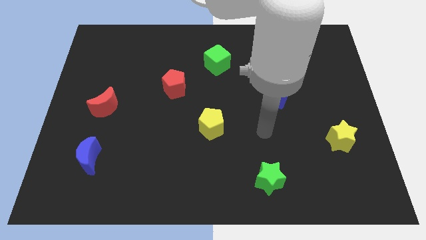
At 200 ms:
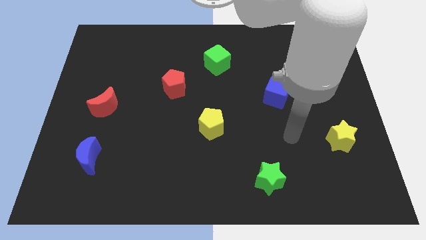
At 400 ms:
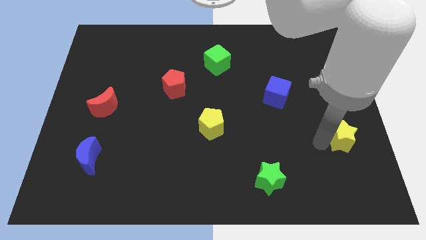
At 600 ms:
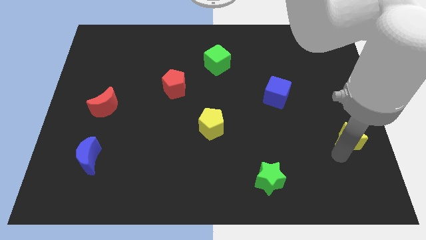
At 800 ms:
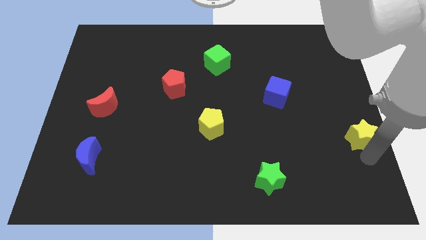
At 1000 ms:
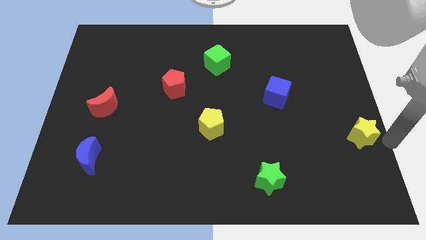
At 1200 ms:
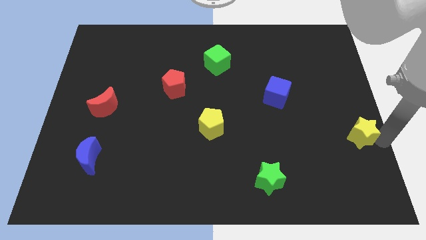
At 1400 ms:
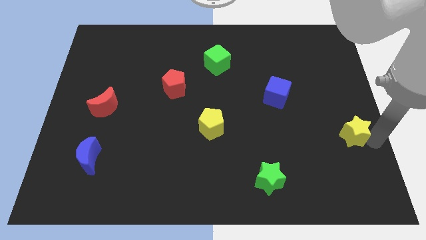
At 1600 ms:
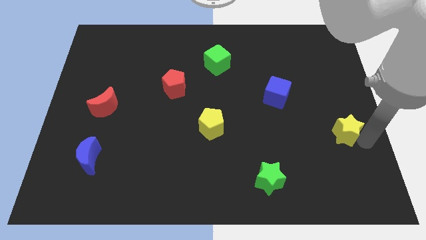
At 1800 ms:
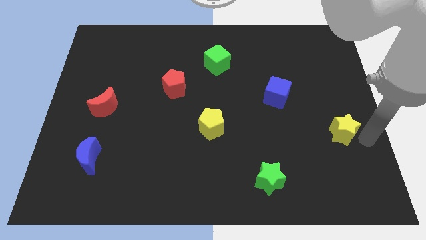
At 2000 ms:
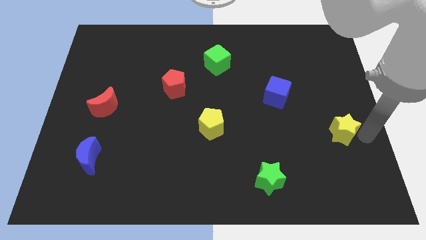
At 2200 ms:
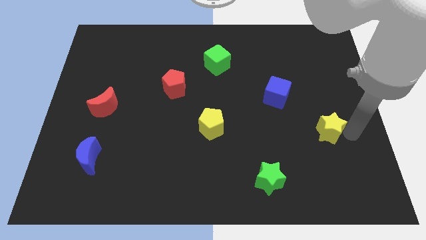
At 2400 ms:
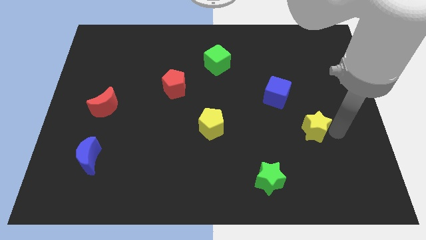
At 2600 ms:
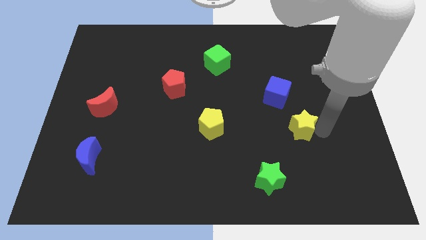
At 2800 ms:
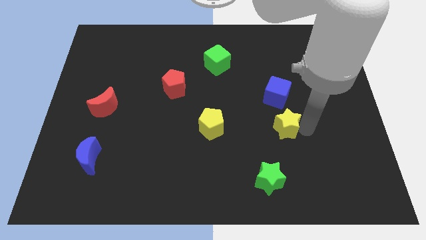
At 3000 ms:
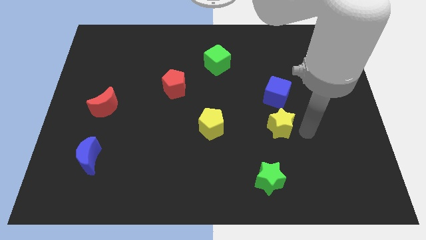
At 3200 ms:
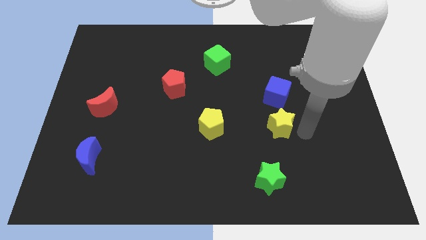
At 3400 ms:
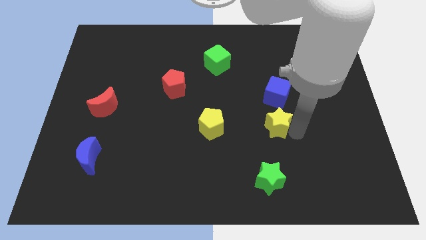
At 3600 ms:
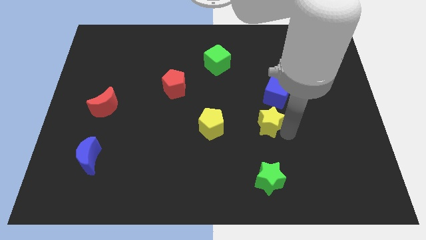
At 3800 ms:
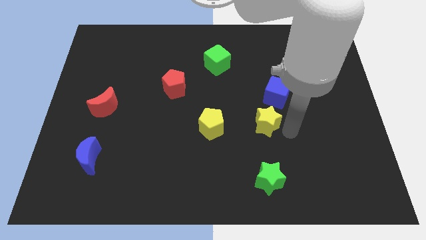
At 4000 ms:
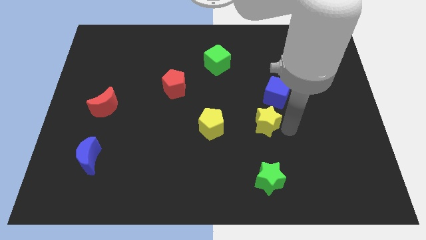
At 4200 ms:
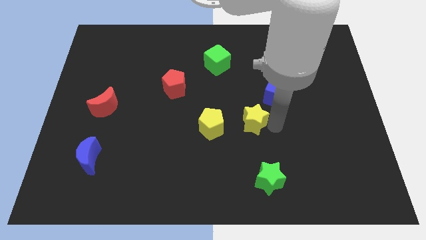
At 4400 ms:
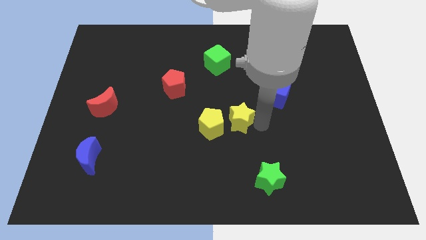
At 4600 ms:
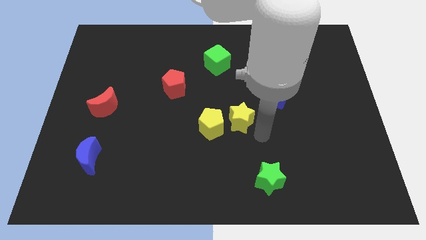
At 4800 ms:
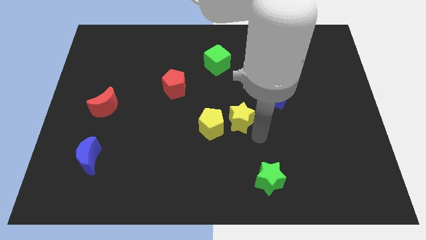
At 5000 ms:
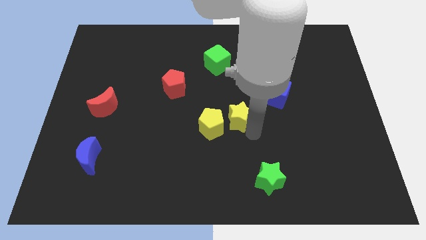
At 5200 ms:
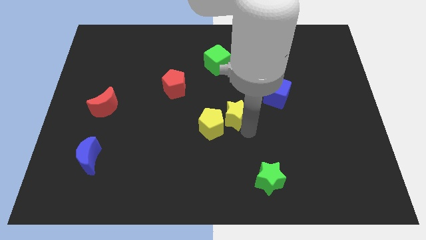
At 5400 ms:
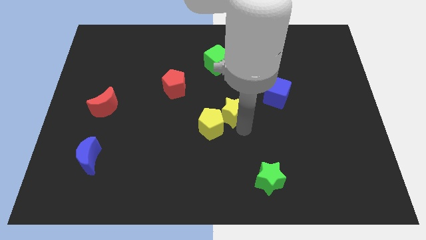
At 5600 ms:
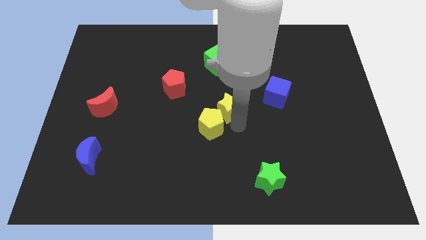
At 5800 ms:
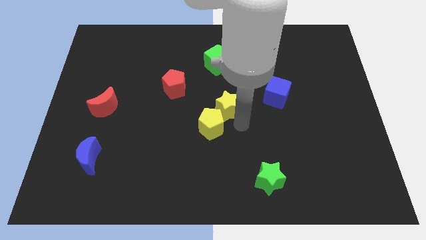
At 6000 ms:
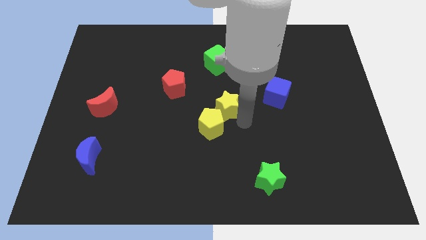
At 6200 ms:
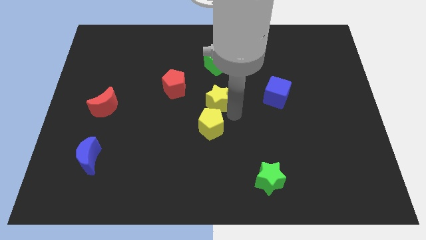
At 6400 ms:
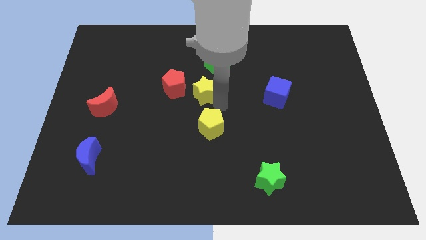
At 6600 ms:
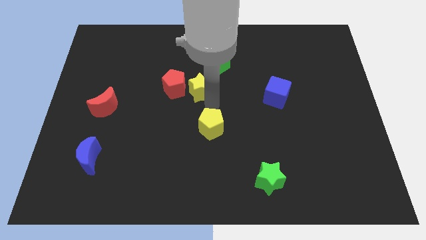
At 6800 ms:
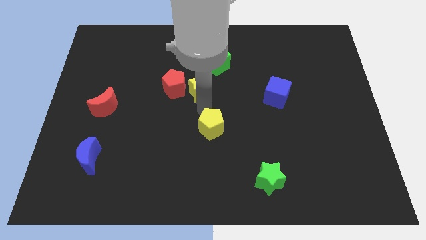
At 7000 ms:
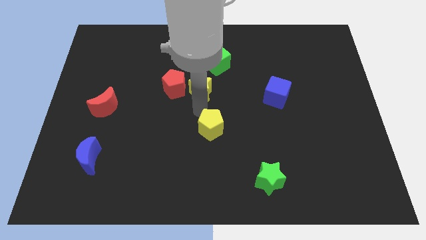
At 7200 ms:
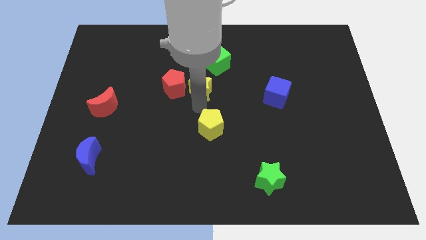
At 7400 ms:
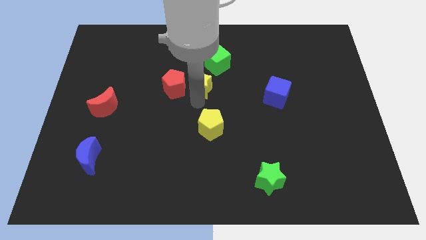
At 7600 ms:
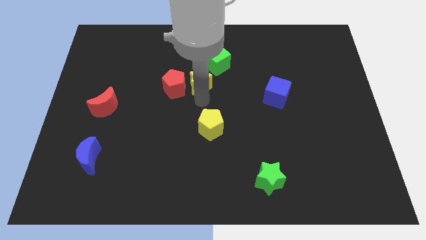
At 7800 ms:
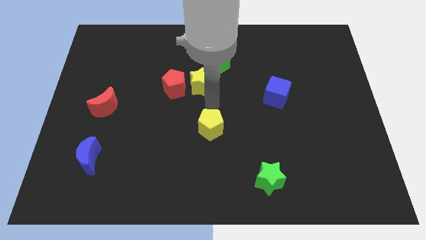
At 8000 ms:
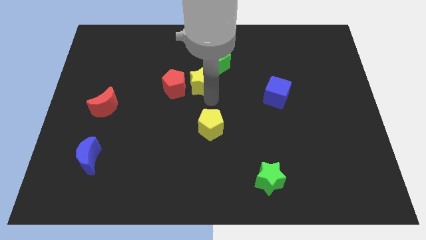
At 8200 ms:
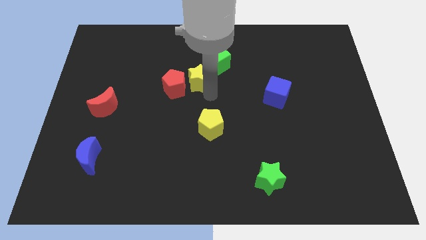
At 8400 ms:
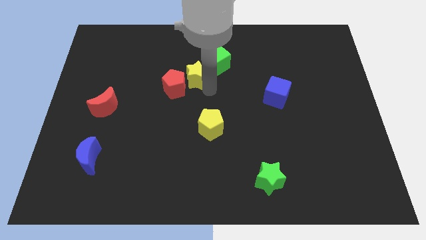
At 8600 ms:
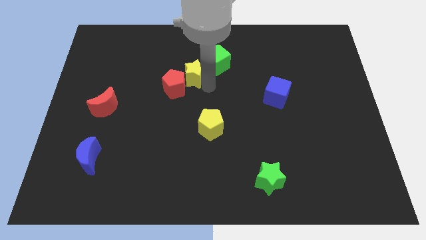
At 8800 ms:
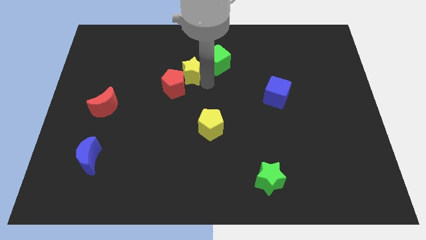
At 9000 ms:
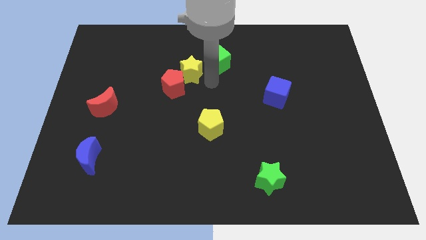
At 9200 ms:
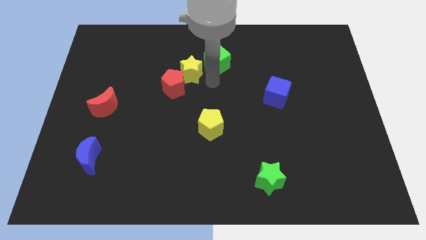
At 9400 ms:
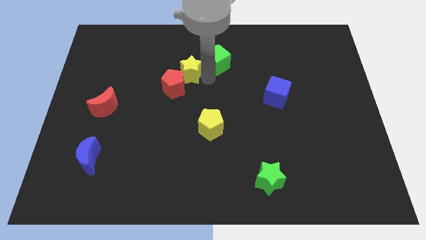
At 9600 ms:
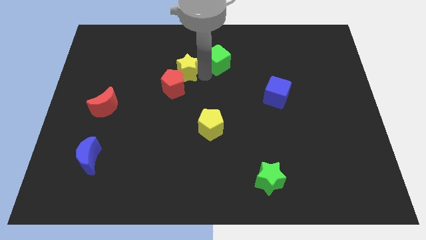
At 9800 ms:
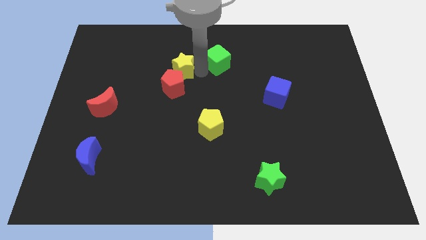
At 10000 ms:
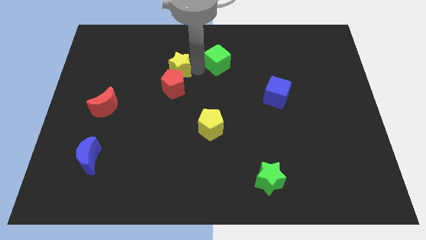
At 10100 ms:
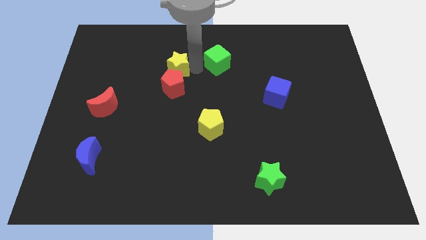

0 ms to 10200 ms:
slide the yellow star to the top left of the red pentagon

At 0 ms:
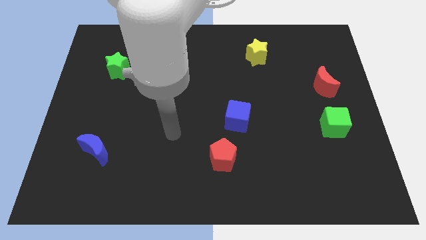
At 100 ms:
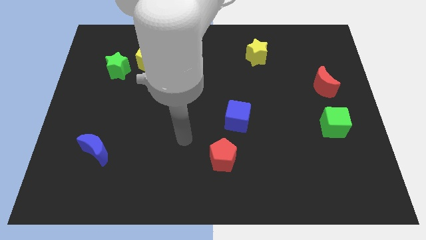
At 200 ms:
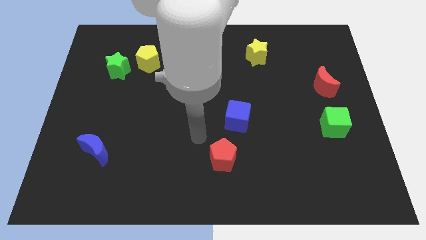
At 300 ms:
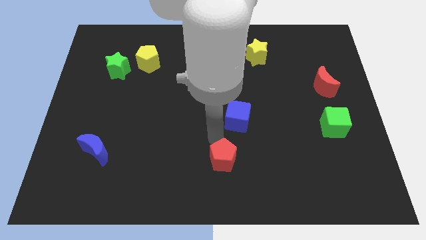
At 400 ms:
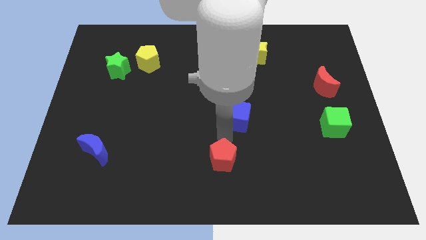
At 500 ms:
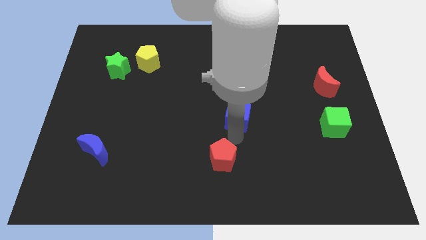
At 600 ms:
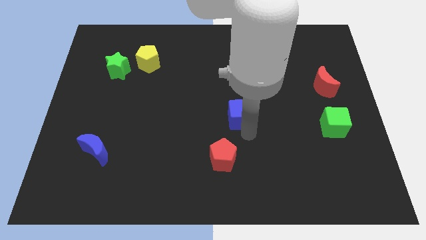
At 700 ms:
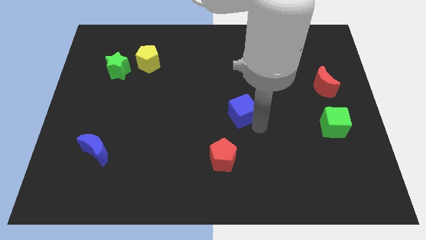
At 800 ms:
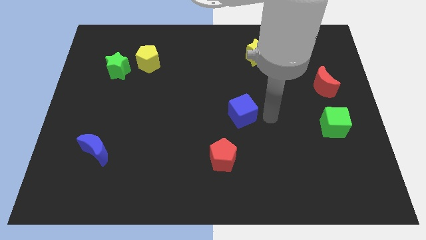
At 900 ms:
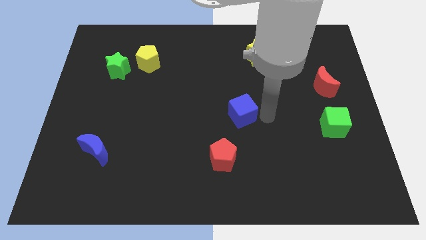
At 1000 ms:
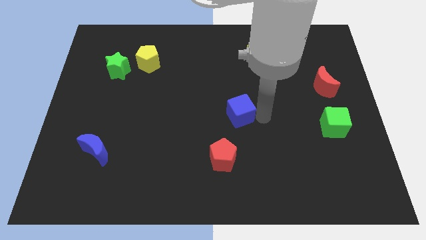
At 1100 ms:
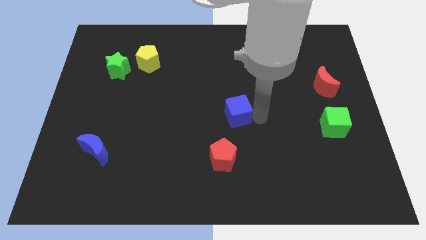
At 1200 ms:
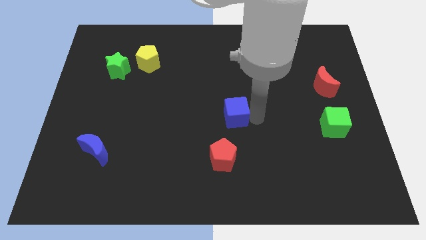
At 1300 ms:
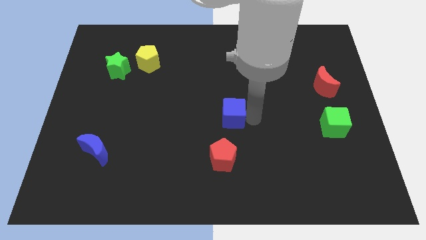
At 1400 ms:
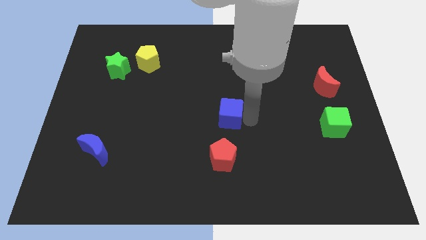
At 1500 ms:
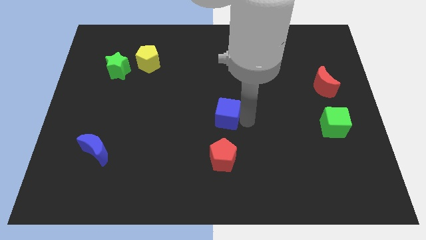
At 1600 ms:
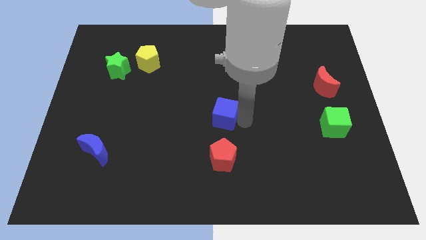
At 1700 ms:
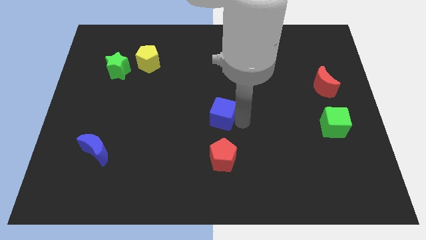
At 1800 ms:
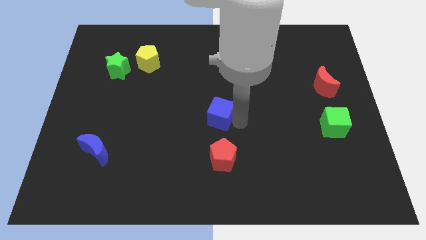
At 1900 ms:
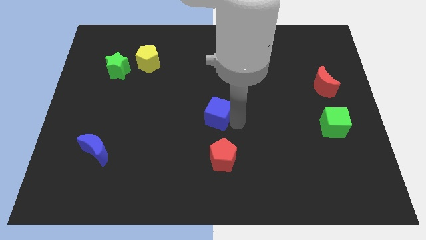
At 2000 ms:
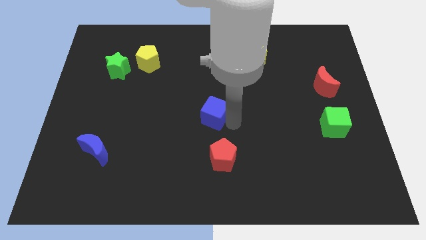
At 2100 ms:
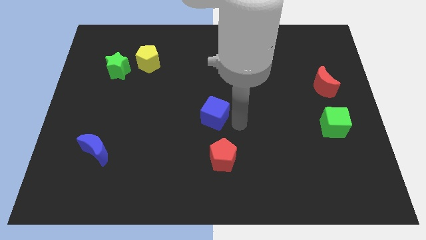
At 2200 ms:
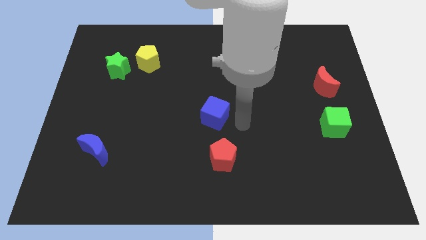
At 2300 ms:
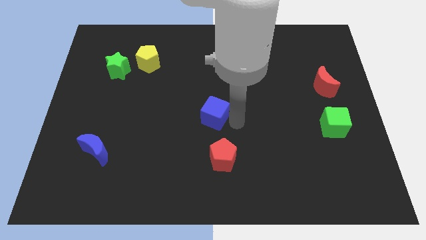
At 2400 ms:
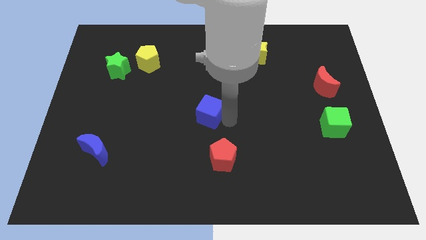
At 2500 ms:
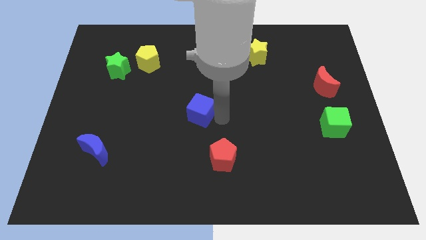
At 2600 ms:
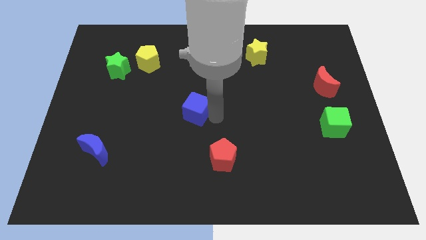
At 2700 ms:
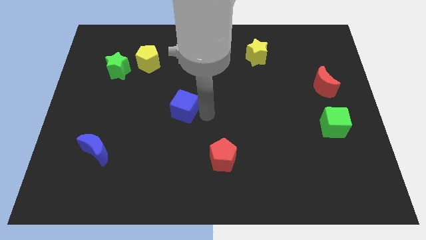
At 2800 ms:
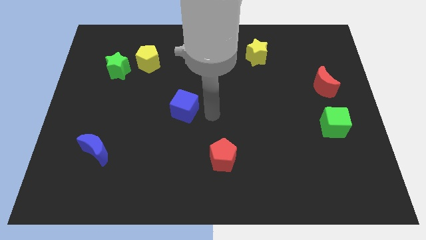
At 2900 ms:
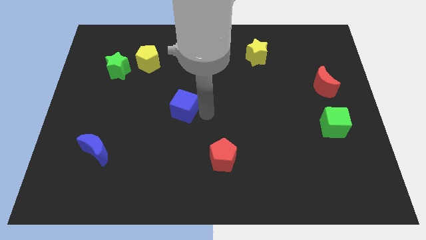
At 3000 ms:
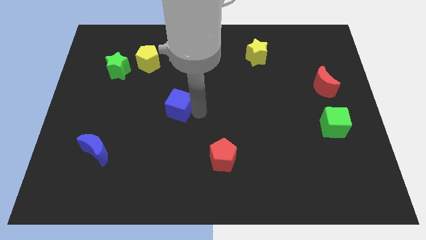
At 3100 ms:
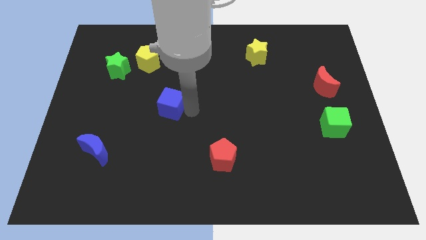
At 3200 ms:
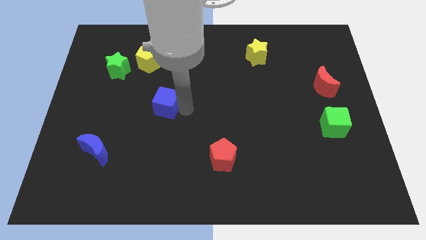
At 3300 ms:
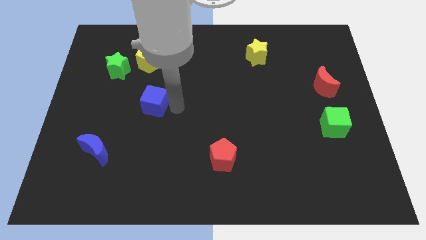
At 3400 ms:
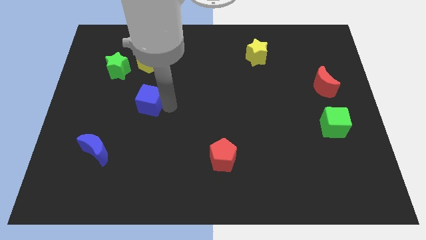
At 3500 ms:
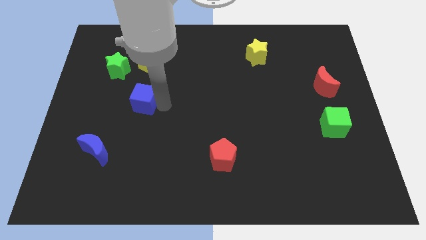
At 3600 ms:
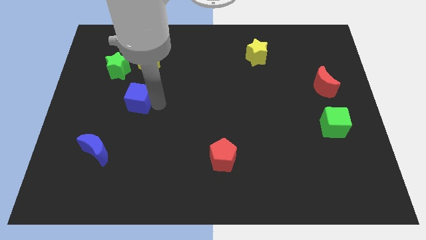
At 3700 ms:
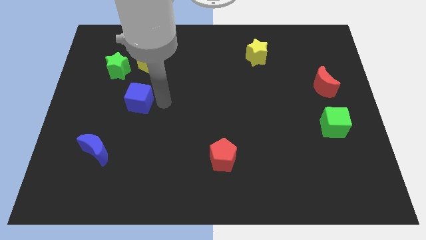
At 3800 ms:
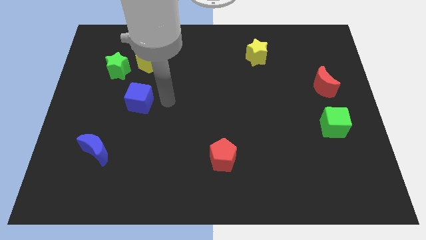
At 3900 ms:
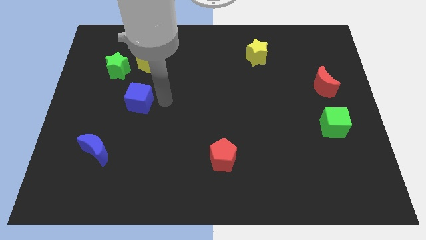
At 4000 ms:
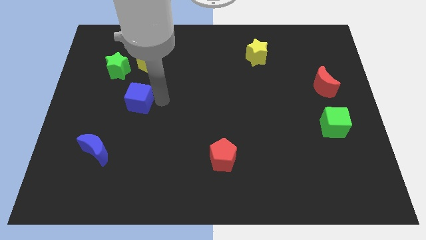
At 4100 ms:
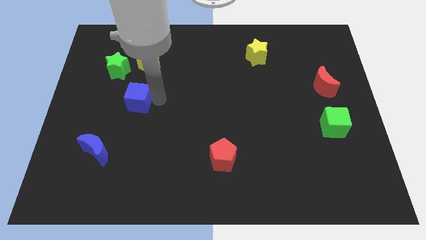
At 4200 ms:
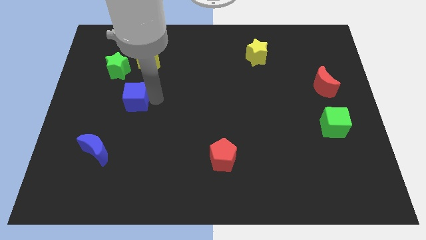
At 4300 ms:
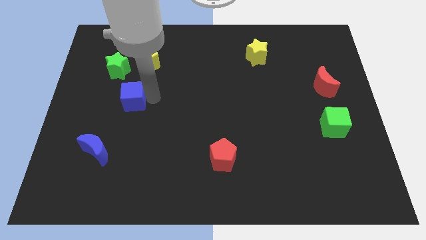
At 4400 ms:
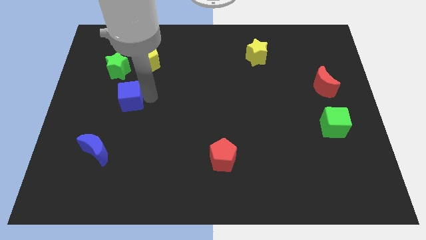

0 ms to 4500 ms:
slide the blue cube to the bottom side of the green star
